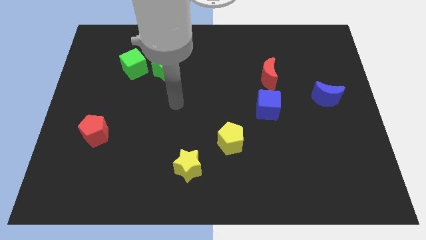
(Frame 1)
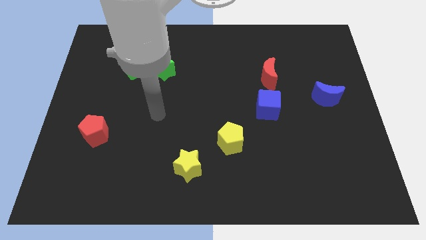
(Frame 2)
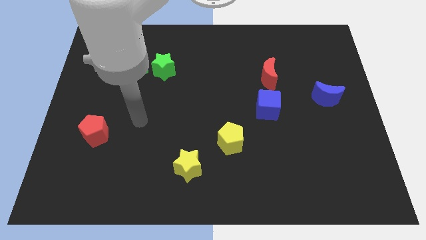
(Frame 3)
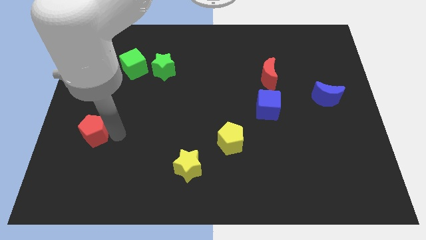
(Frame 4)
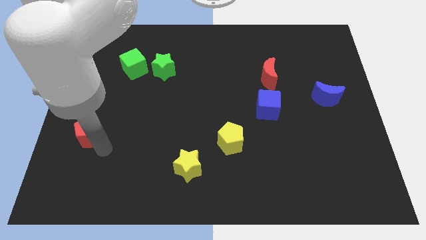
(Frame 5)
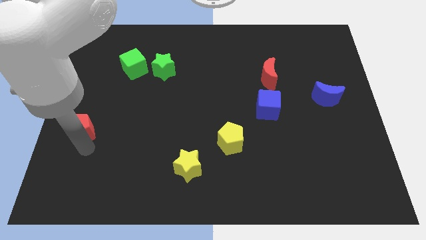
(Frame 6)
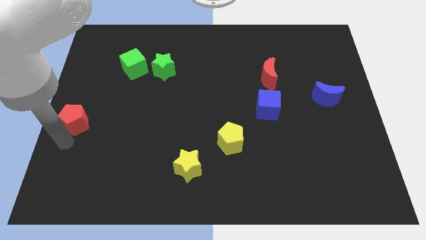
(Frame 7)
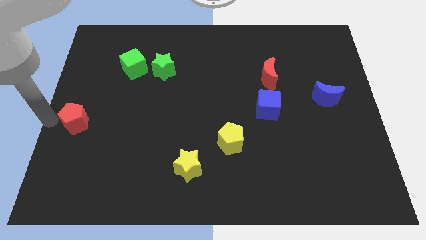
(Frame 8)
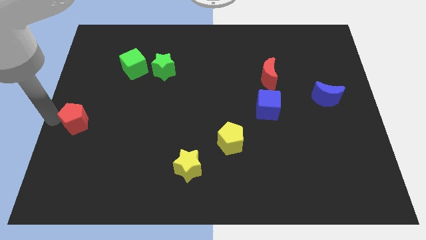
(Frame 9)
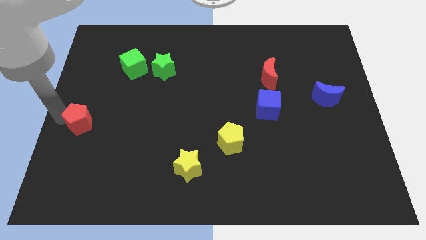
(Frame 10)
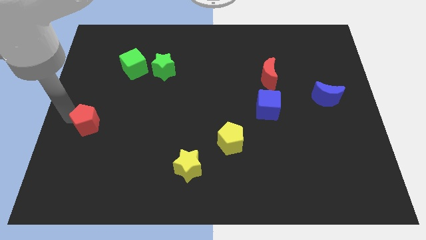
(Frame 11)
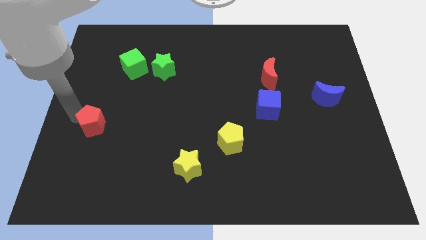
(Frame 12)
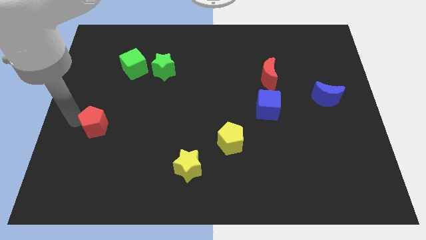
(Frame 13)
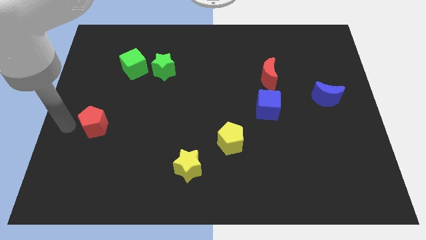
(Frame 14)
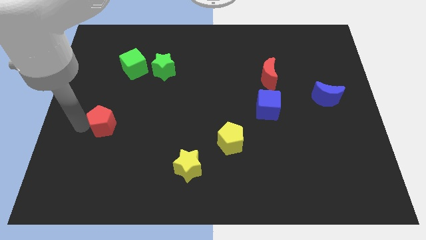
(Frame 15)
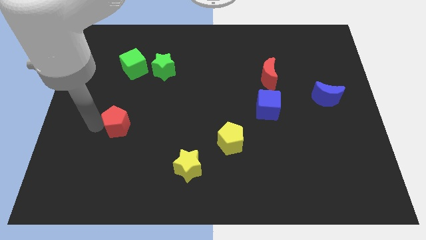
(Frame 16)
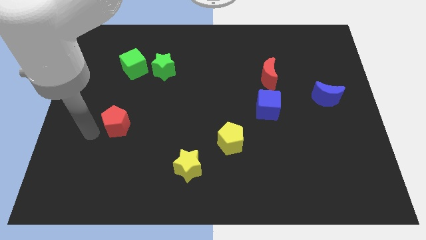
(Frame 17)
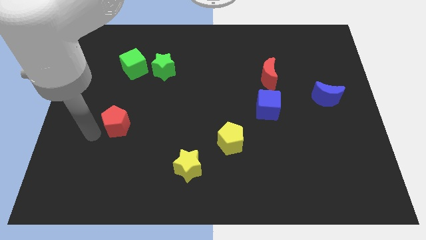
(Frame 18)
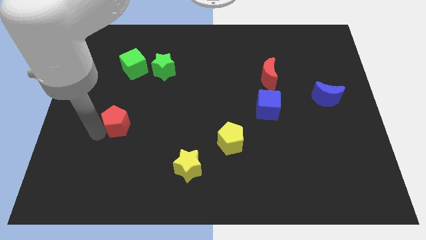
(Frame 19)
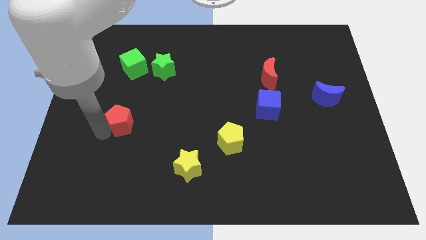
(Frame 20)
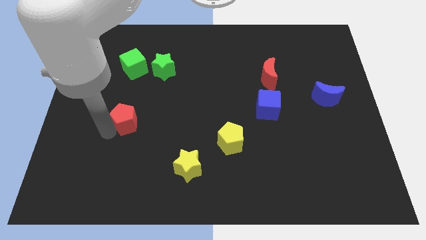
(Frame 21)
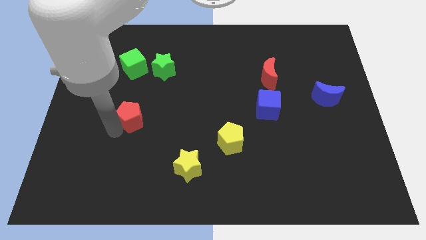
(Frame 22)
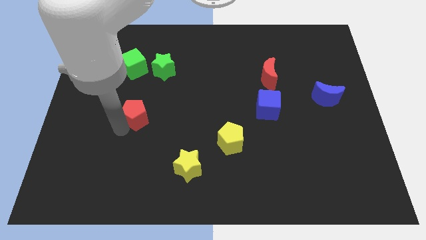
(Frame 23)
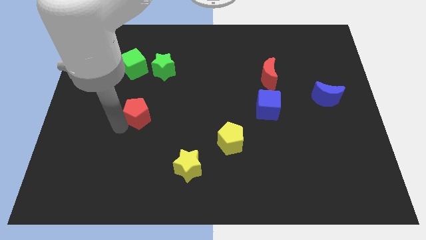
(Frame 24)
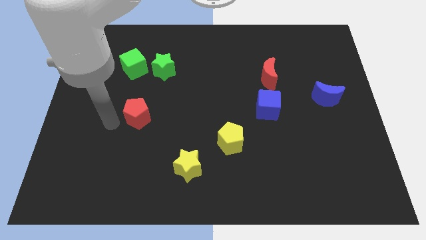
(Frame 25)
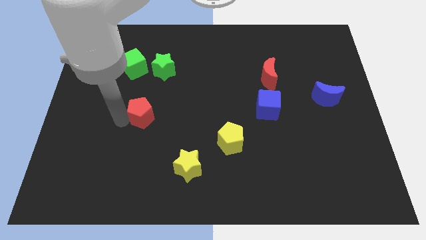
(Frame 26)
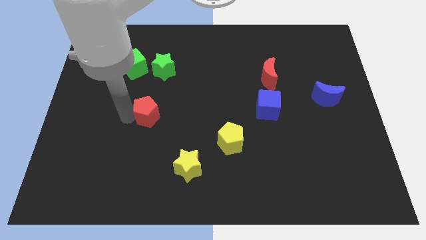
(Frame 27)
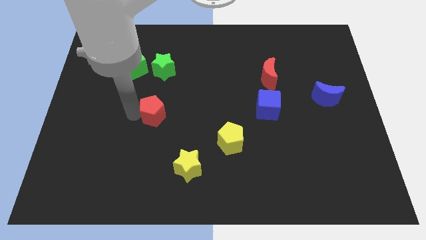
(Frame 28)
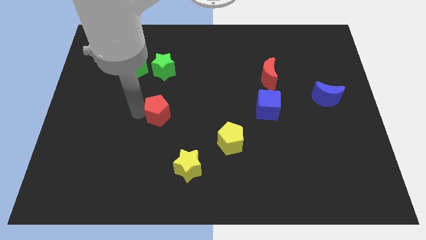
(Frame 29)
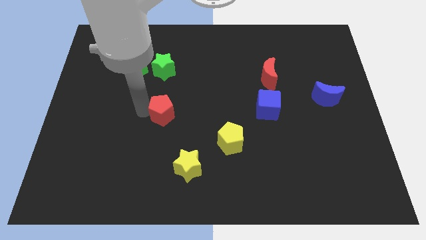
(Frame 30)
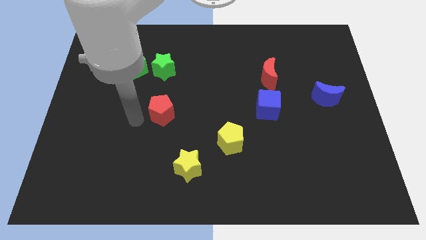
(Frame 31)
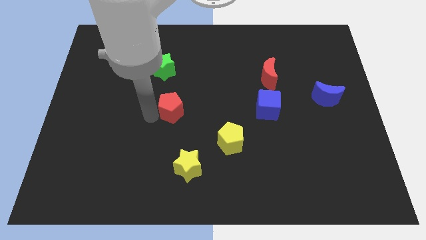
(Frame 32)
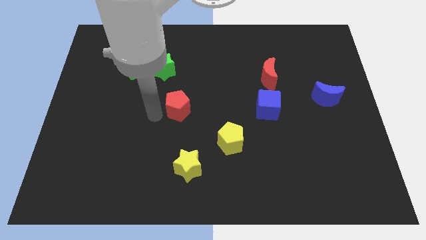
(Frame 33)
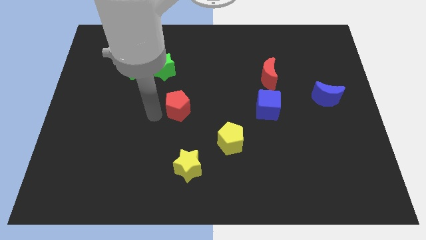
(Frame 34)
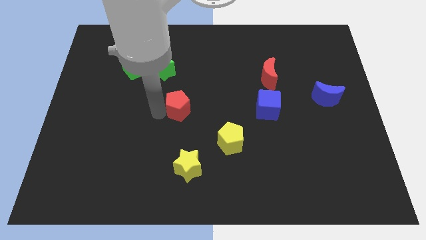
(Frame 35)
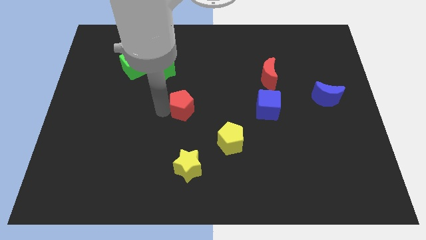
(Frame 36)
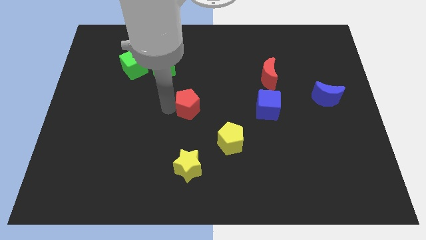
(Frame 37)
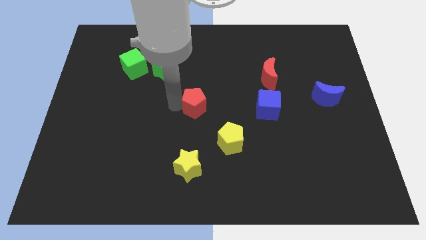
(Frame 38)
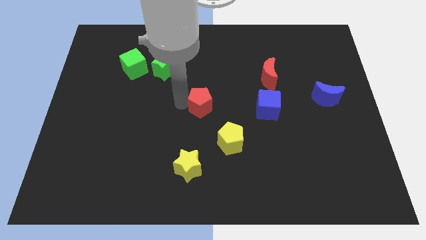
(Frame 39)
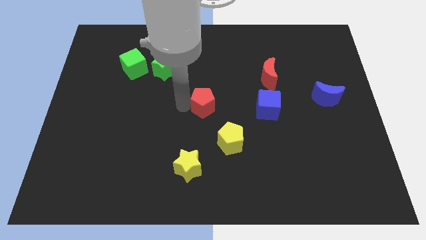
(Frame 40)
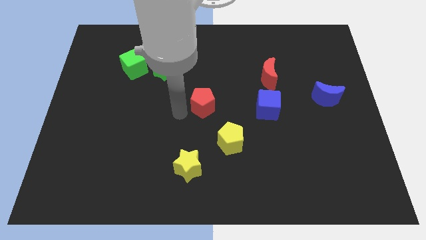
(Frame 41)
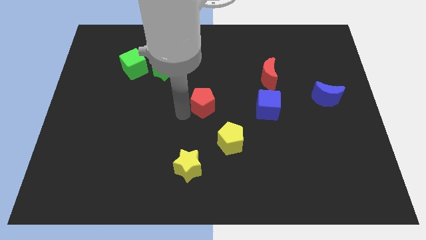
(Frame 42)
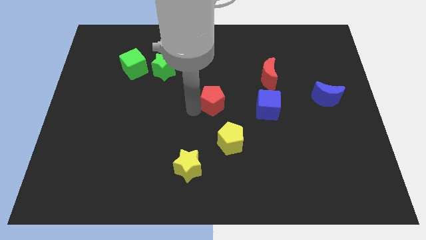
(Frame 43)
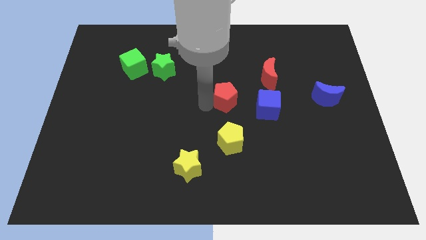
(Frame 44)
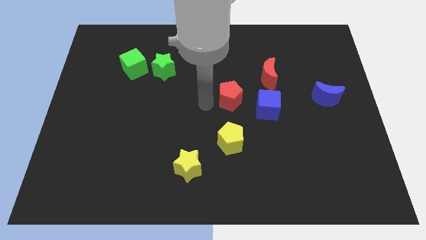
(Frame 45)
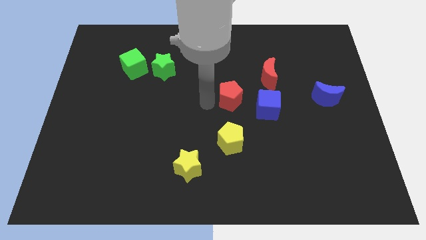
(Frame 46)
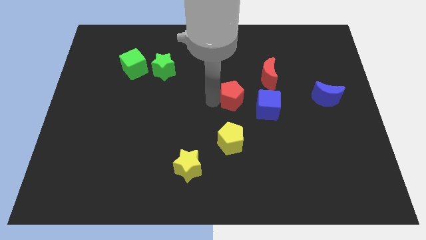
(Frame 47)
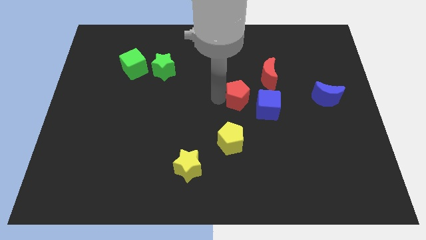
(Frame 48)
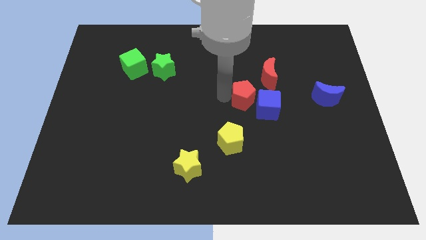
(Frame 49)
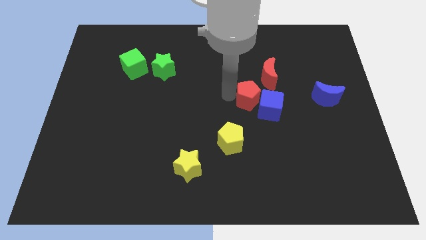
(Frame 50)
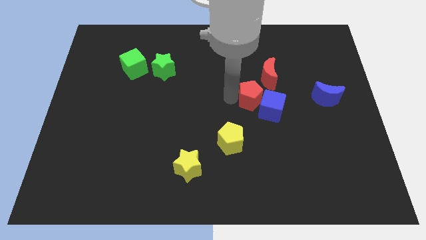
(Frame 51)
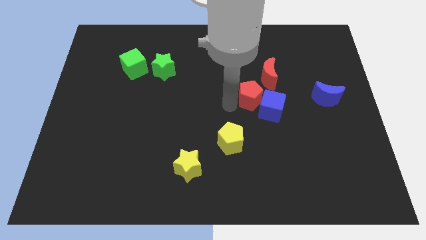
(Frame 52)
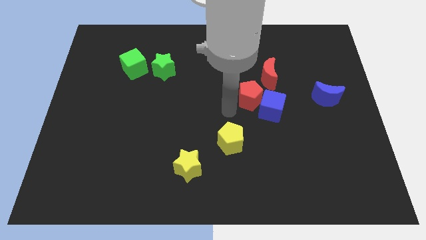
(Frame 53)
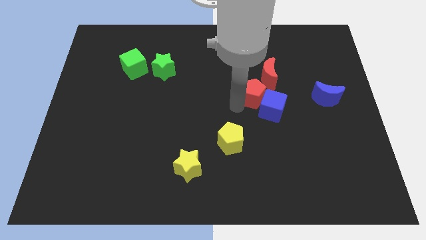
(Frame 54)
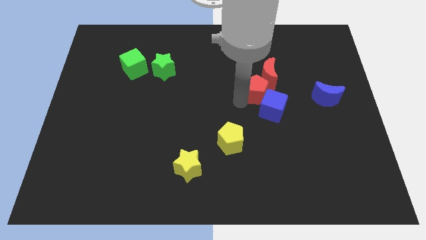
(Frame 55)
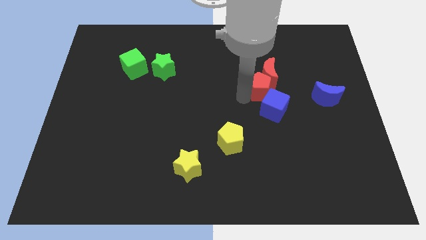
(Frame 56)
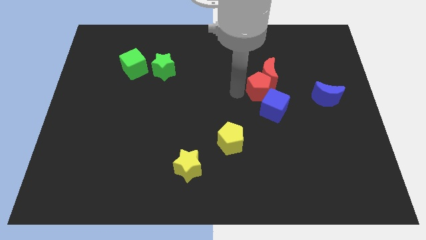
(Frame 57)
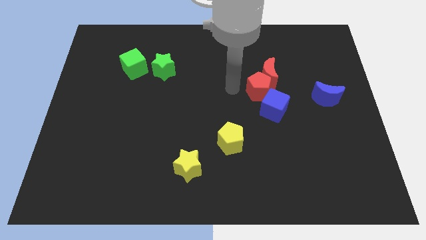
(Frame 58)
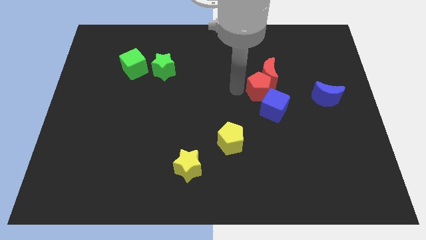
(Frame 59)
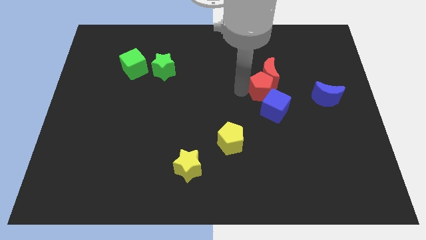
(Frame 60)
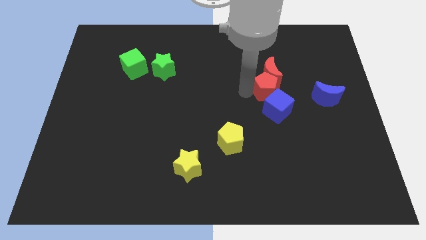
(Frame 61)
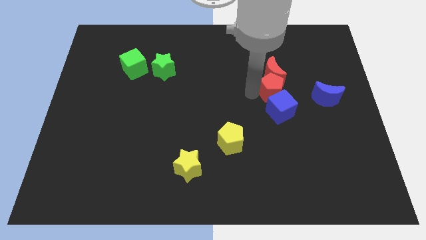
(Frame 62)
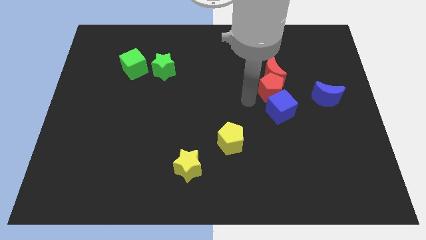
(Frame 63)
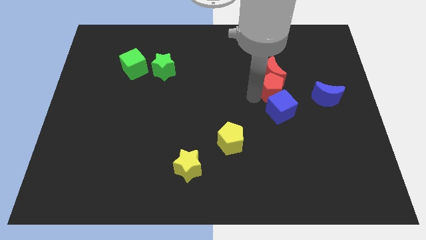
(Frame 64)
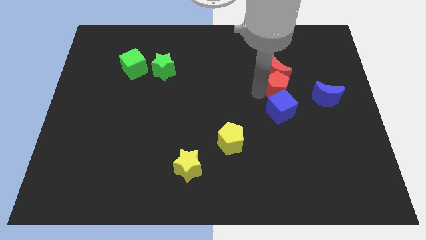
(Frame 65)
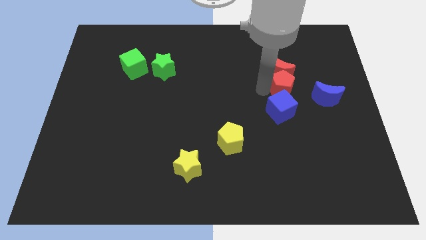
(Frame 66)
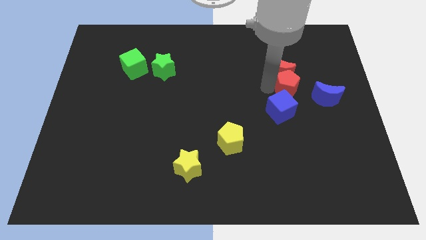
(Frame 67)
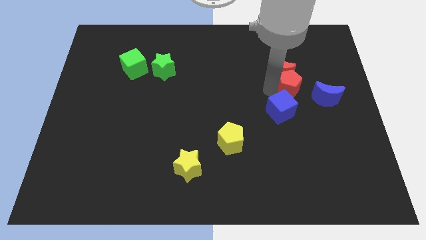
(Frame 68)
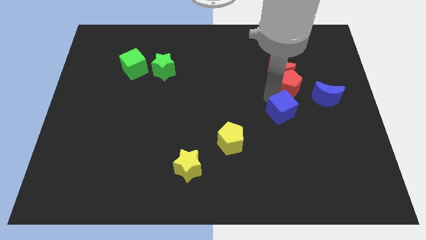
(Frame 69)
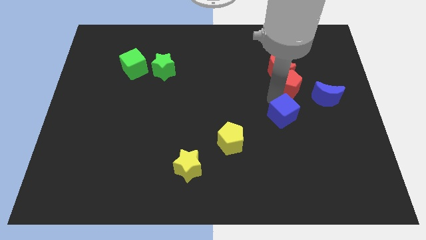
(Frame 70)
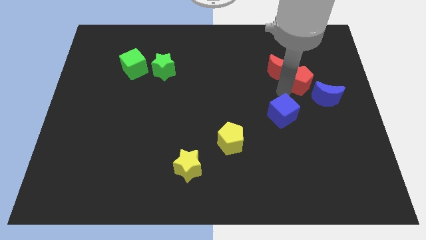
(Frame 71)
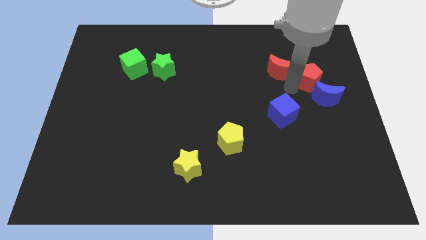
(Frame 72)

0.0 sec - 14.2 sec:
put the red pentagon above the blue moon
